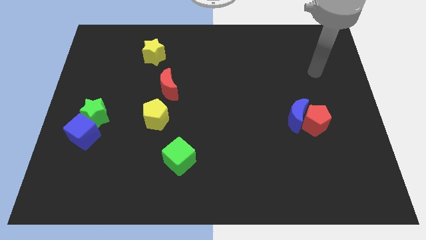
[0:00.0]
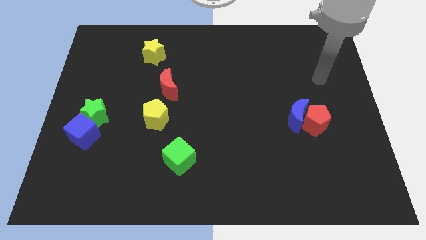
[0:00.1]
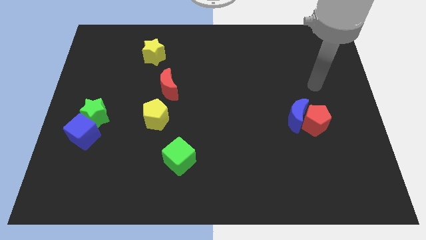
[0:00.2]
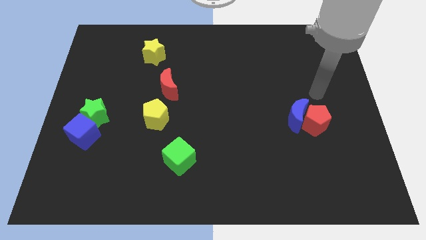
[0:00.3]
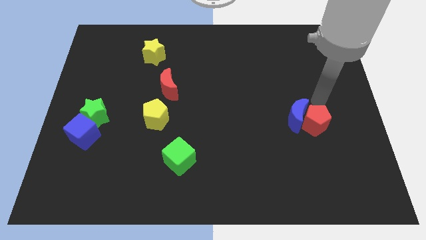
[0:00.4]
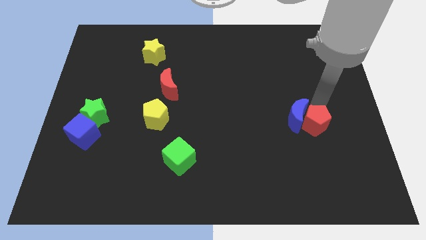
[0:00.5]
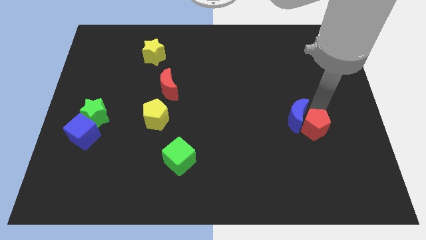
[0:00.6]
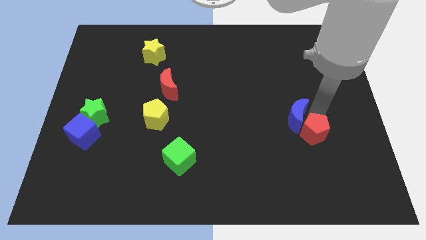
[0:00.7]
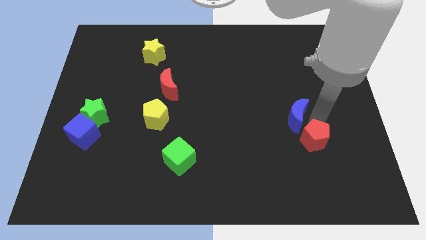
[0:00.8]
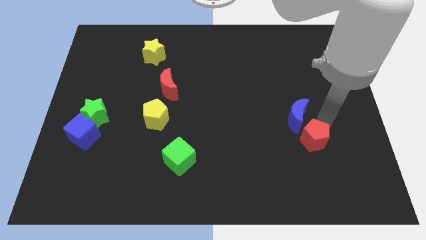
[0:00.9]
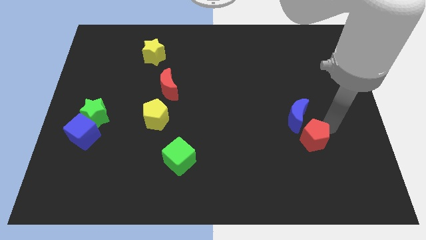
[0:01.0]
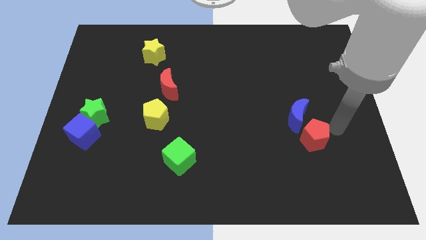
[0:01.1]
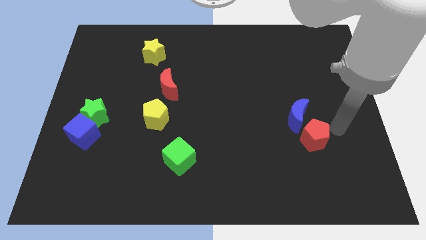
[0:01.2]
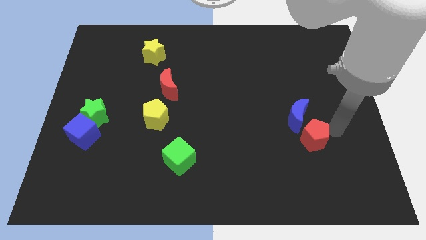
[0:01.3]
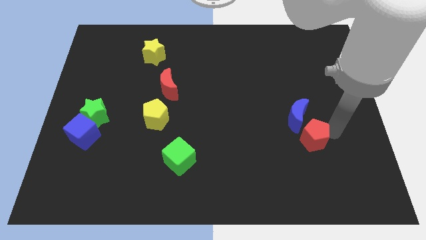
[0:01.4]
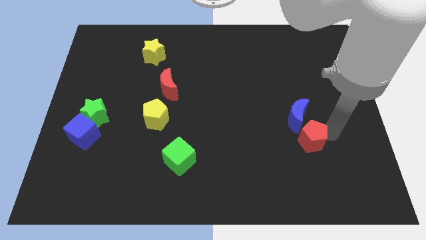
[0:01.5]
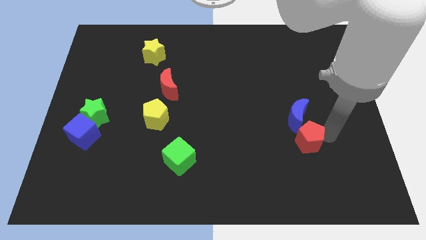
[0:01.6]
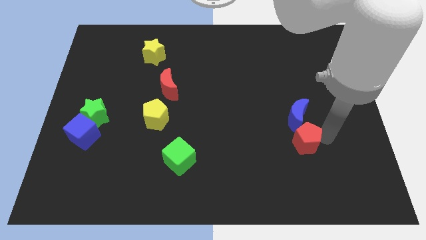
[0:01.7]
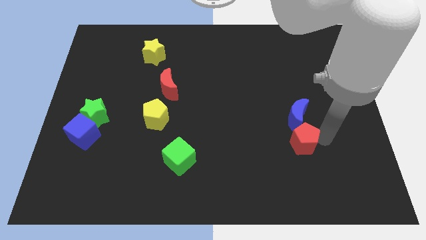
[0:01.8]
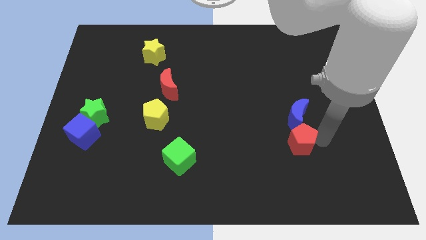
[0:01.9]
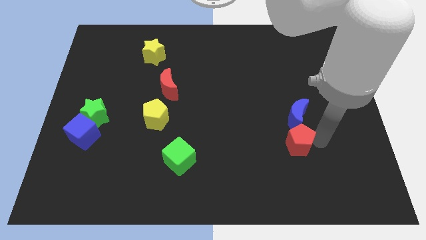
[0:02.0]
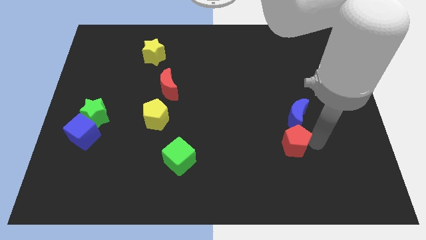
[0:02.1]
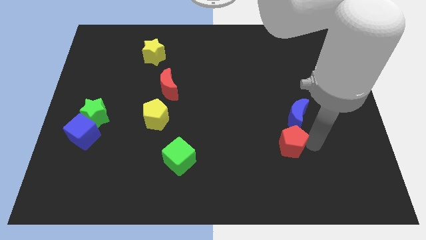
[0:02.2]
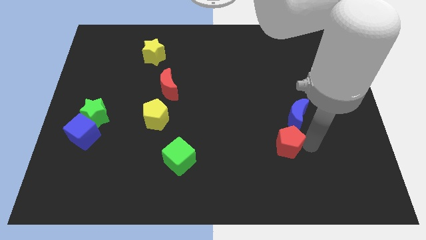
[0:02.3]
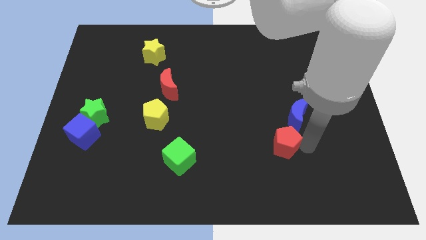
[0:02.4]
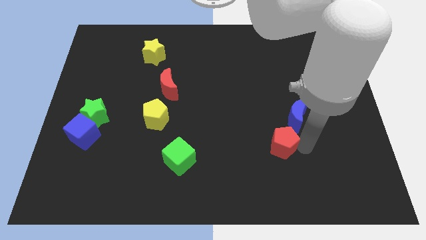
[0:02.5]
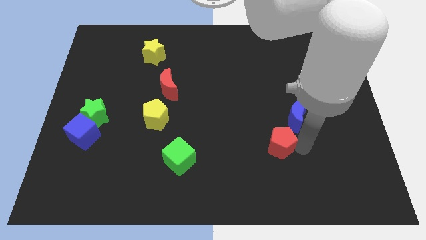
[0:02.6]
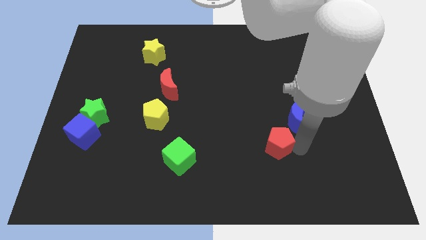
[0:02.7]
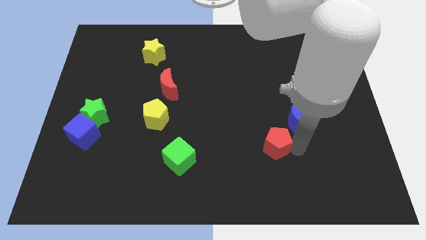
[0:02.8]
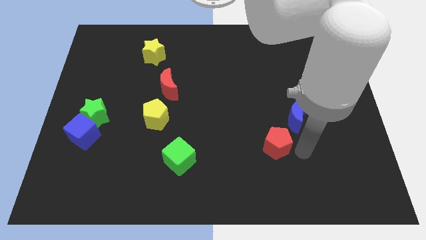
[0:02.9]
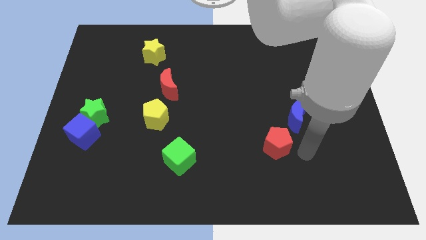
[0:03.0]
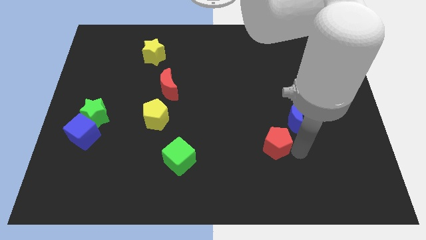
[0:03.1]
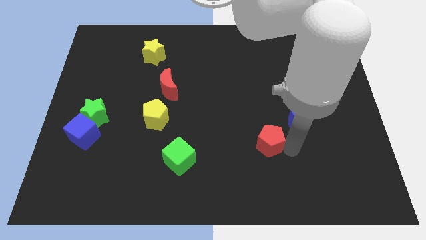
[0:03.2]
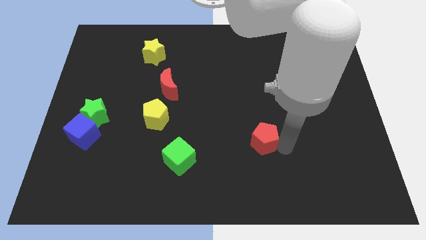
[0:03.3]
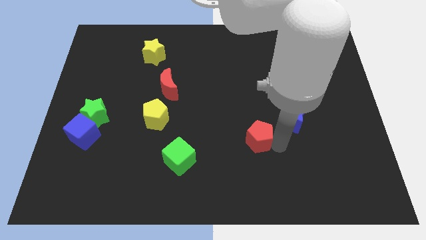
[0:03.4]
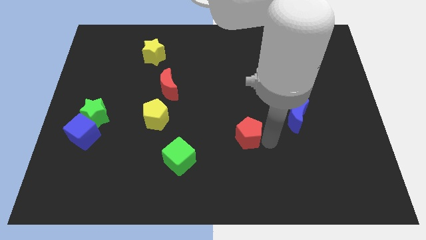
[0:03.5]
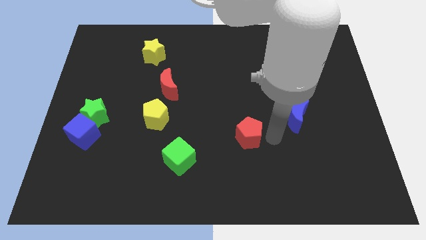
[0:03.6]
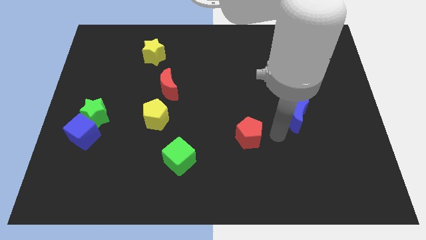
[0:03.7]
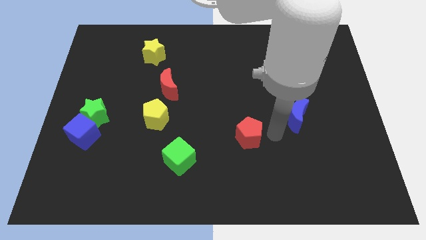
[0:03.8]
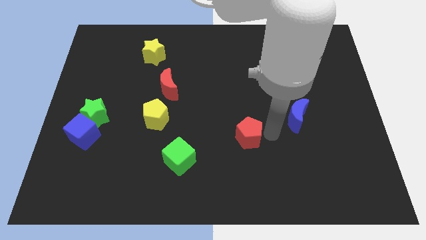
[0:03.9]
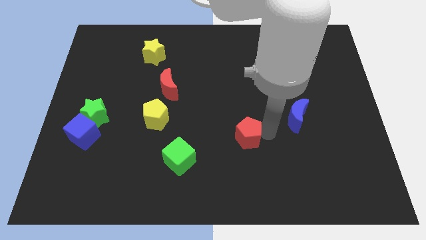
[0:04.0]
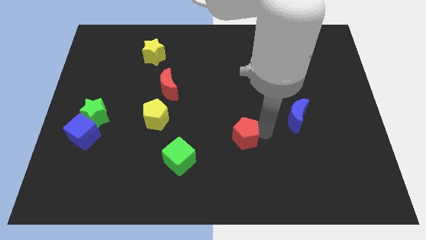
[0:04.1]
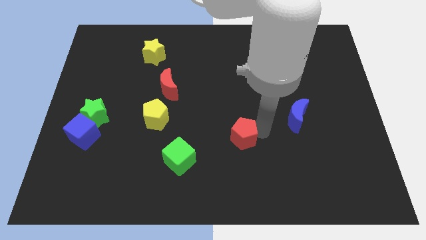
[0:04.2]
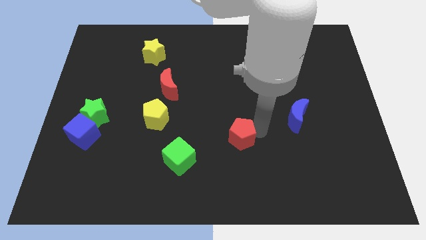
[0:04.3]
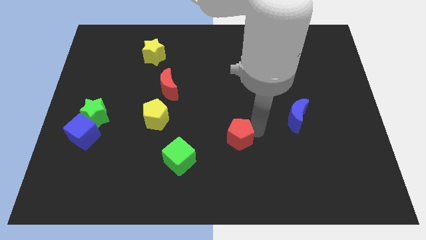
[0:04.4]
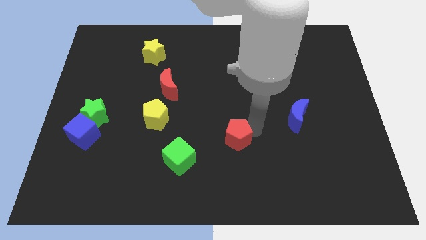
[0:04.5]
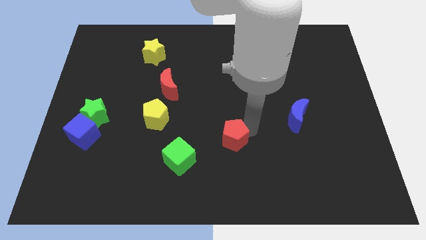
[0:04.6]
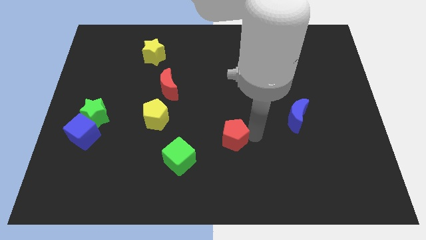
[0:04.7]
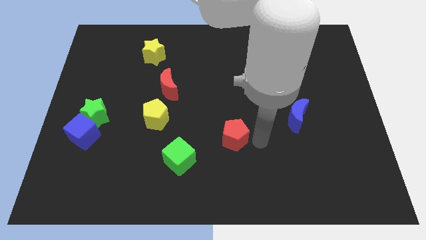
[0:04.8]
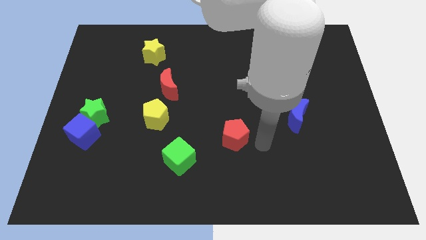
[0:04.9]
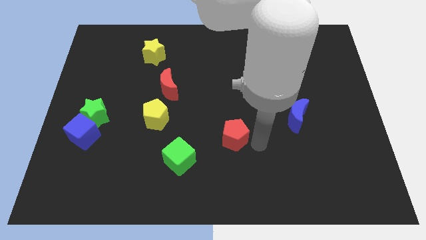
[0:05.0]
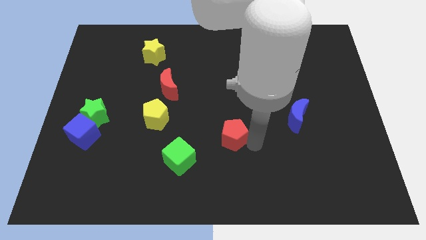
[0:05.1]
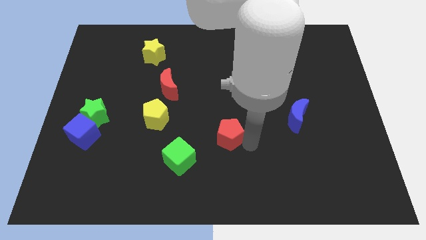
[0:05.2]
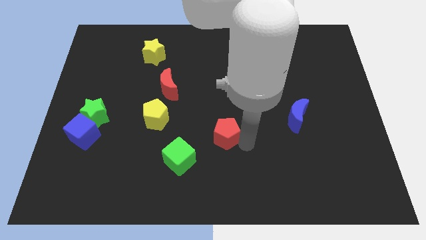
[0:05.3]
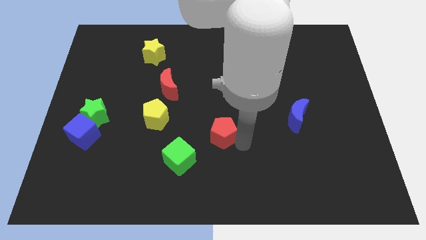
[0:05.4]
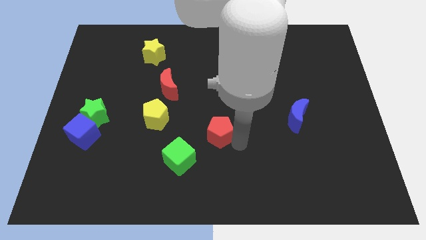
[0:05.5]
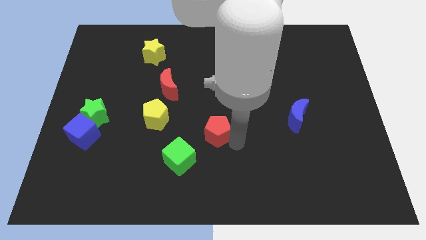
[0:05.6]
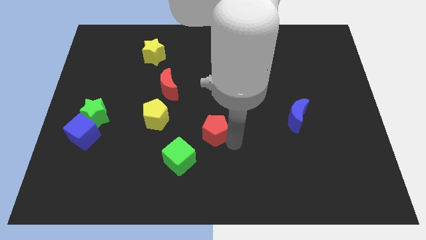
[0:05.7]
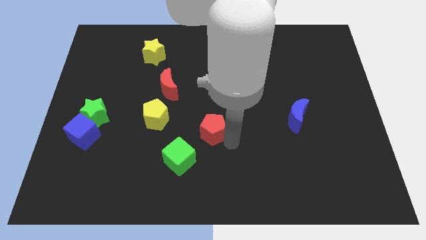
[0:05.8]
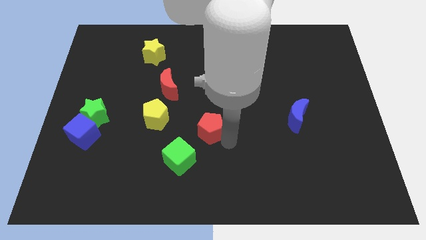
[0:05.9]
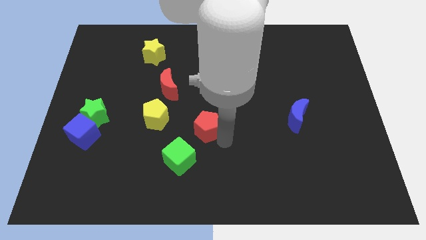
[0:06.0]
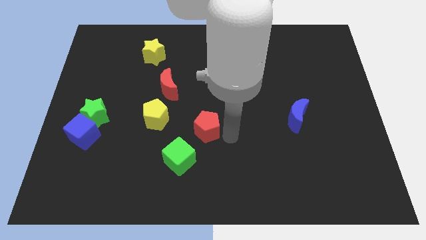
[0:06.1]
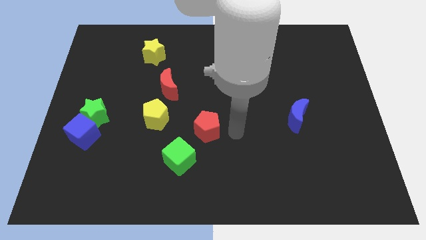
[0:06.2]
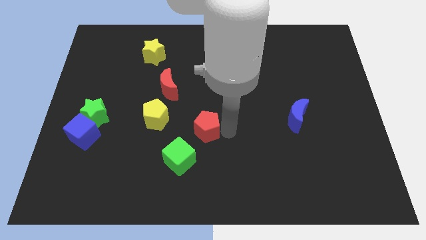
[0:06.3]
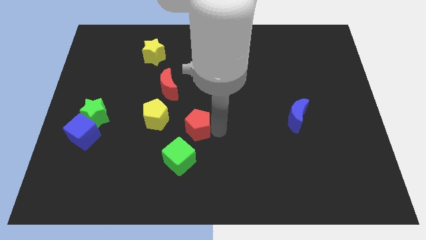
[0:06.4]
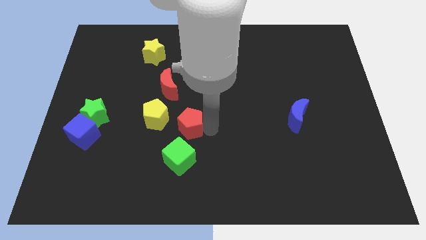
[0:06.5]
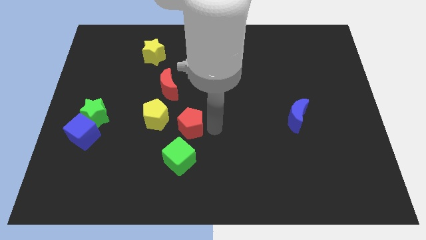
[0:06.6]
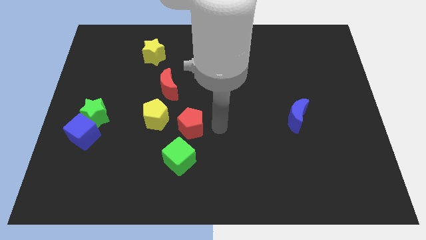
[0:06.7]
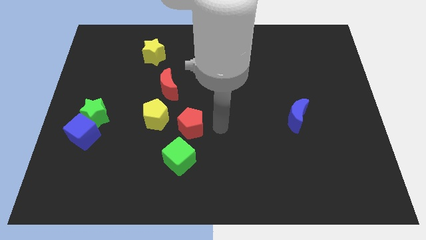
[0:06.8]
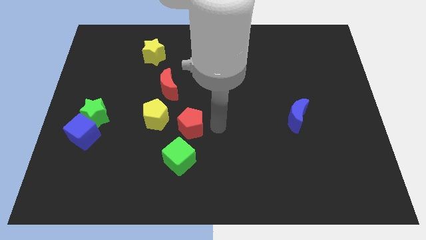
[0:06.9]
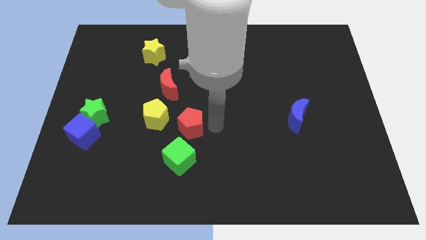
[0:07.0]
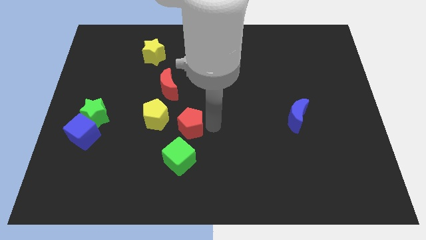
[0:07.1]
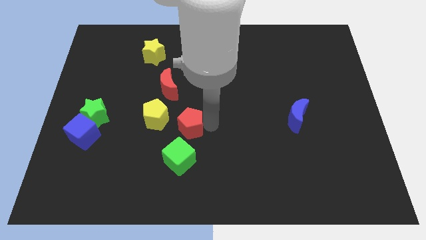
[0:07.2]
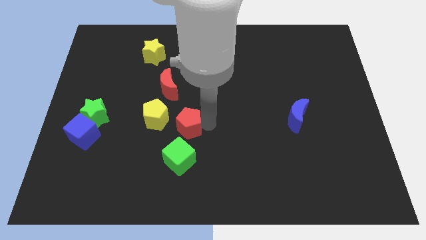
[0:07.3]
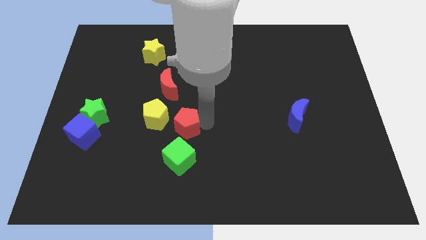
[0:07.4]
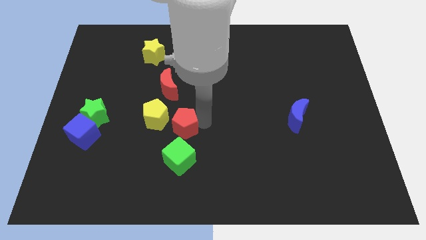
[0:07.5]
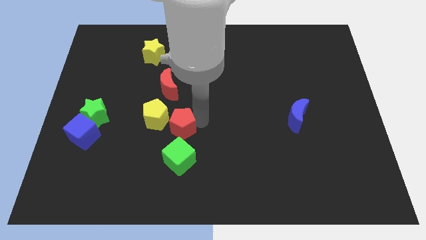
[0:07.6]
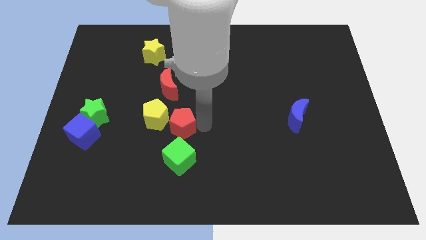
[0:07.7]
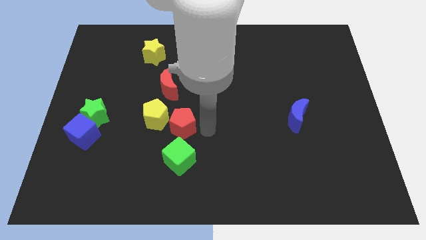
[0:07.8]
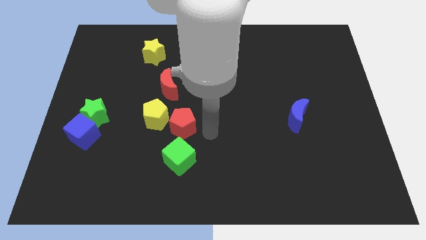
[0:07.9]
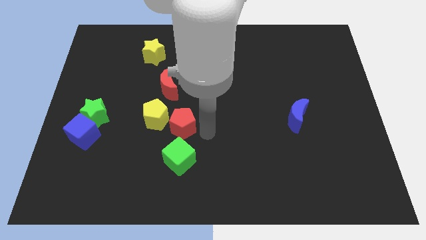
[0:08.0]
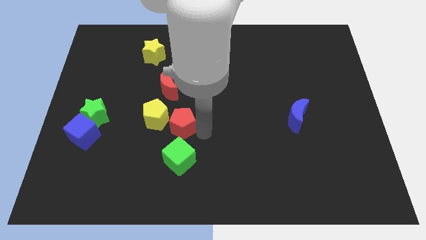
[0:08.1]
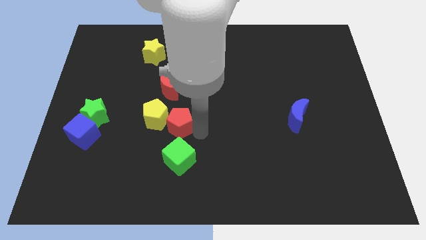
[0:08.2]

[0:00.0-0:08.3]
slide the red pentagon close to the yellow pentagon
